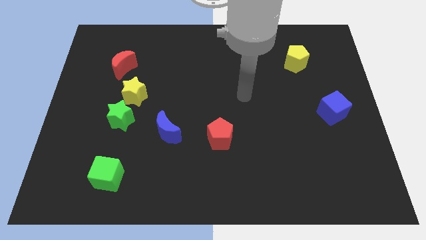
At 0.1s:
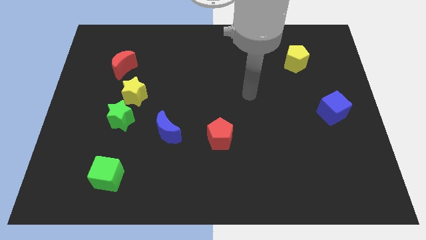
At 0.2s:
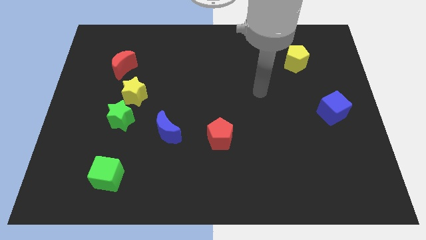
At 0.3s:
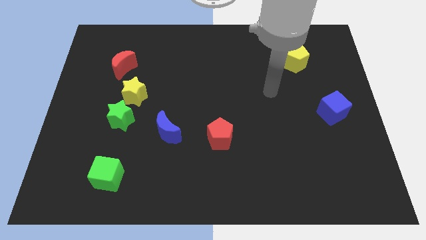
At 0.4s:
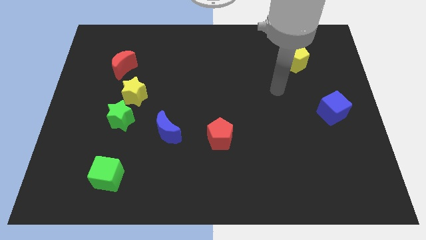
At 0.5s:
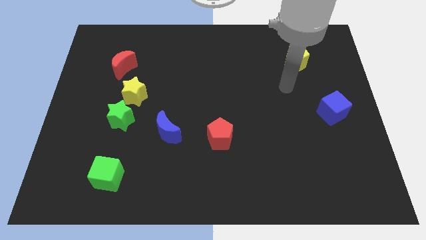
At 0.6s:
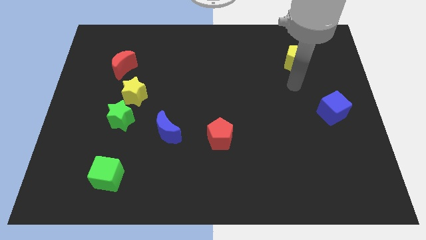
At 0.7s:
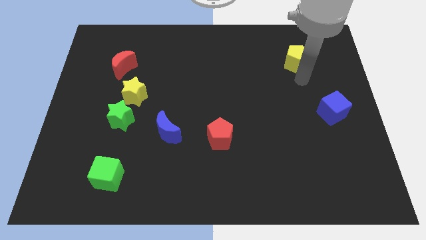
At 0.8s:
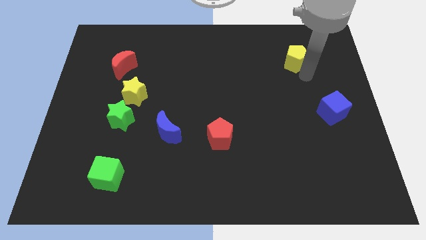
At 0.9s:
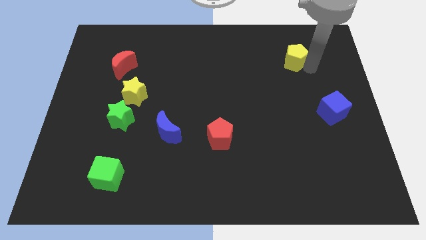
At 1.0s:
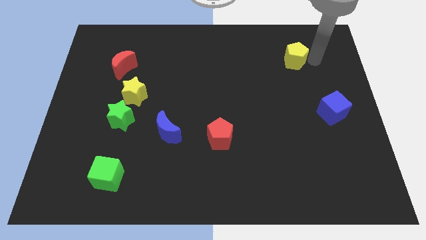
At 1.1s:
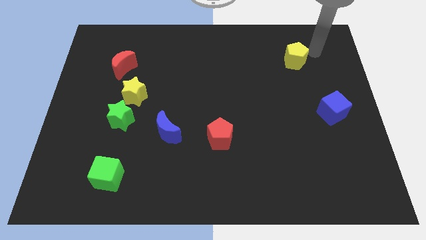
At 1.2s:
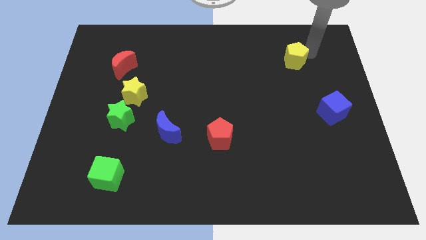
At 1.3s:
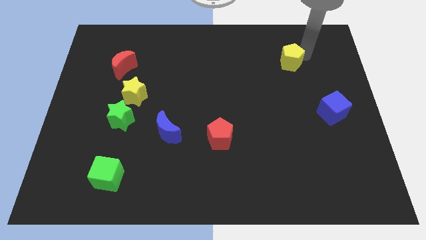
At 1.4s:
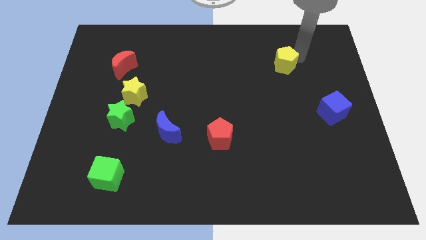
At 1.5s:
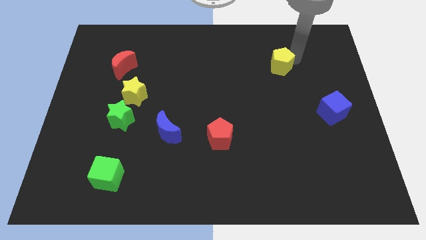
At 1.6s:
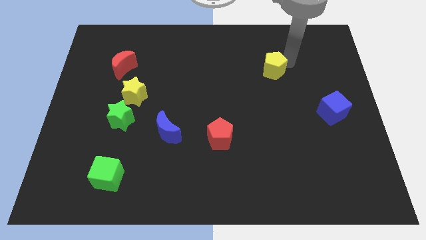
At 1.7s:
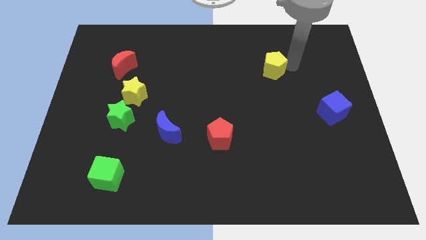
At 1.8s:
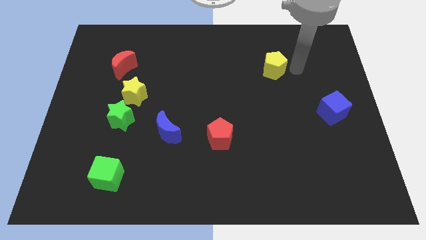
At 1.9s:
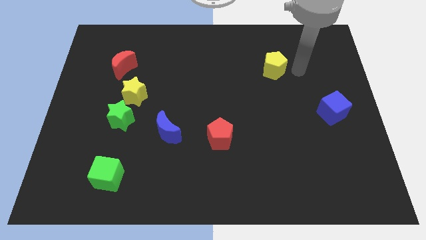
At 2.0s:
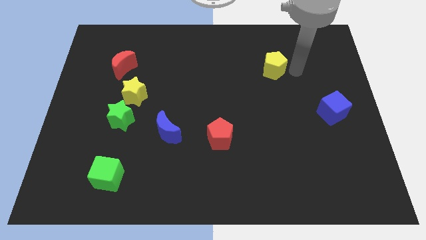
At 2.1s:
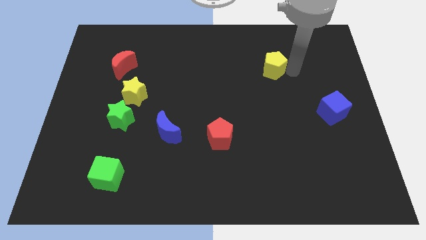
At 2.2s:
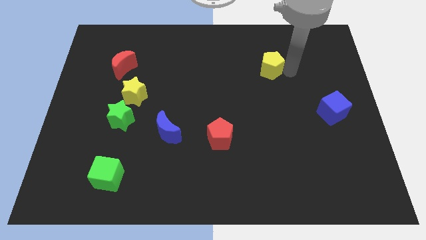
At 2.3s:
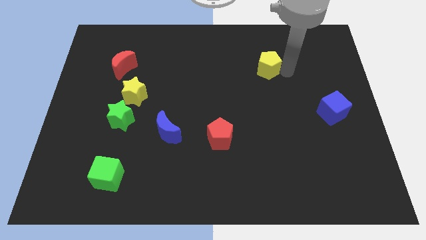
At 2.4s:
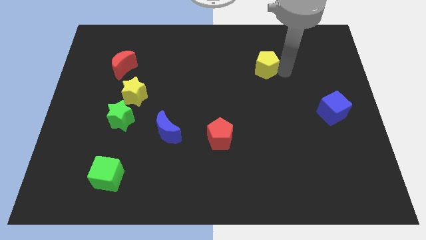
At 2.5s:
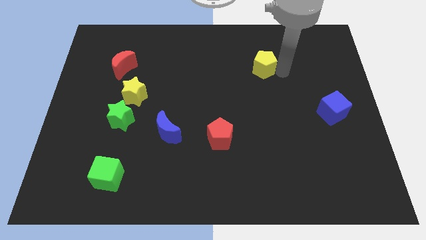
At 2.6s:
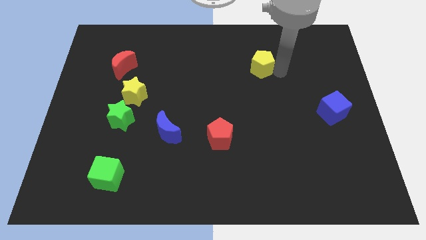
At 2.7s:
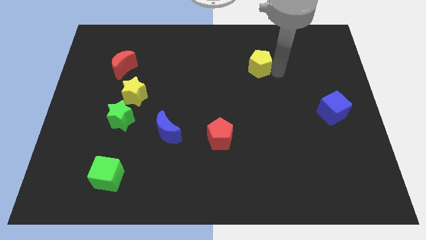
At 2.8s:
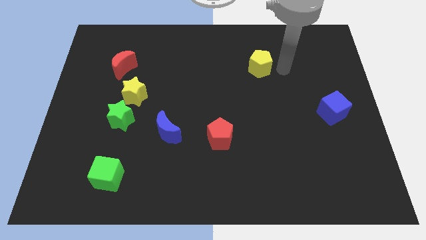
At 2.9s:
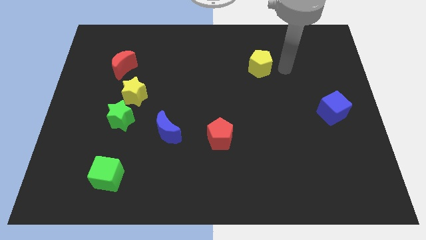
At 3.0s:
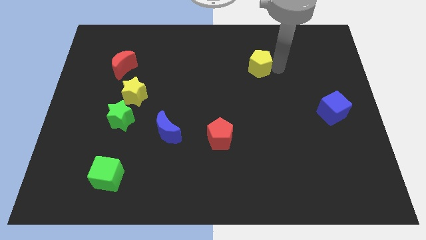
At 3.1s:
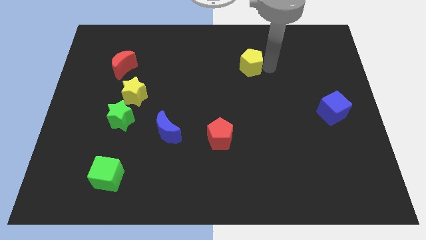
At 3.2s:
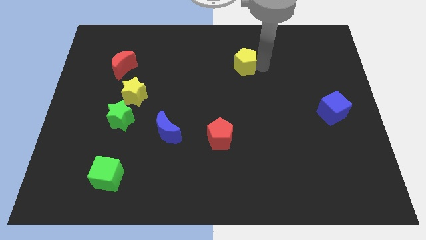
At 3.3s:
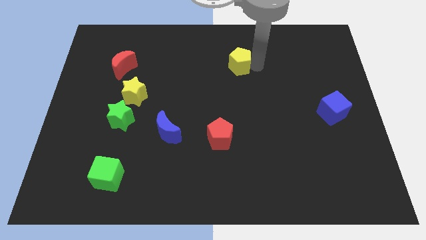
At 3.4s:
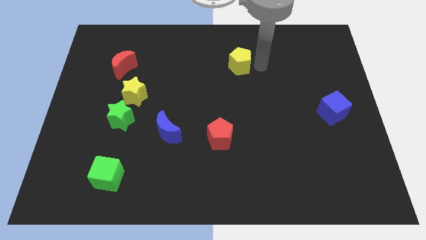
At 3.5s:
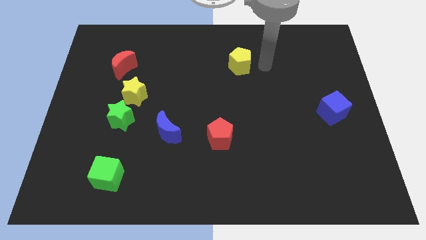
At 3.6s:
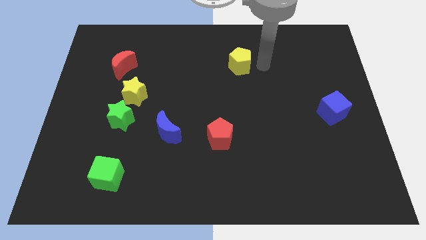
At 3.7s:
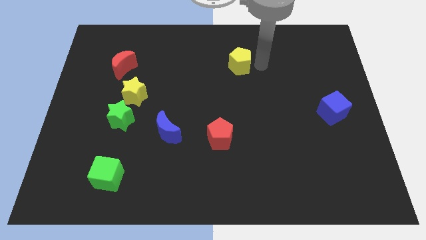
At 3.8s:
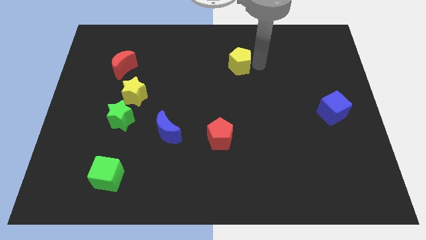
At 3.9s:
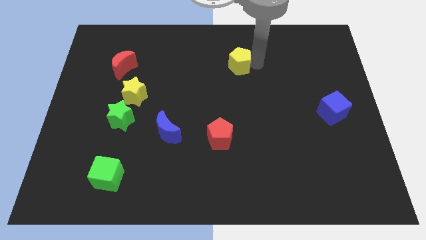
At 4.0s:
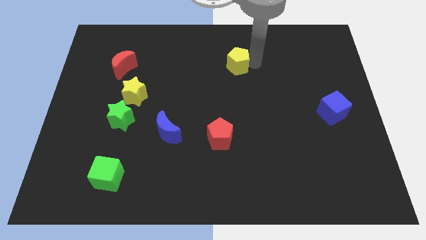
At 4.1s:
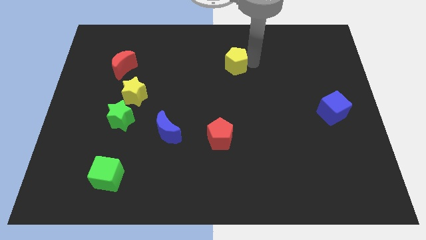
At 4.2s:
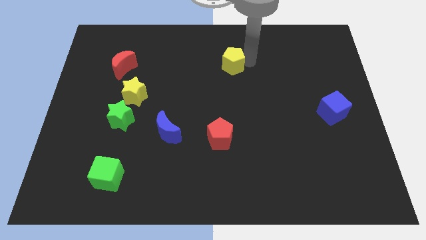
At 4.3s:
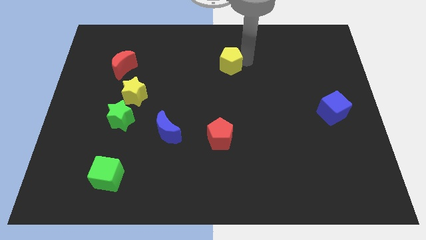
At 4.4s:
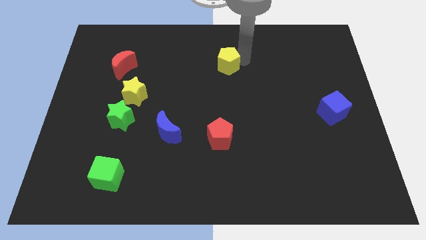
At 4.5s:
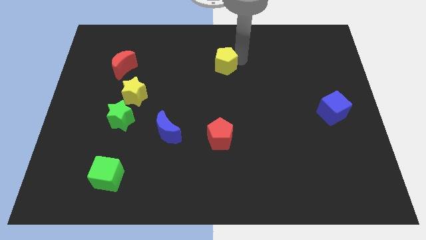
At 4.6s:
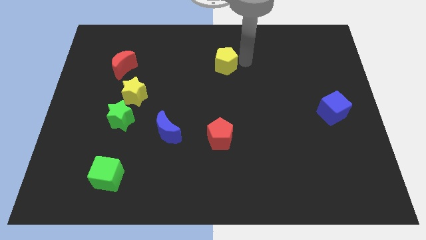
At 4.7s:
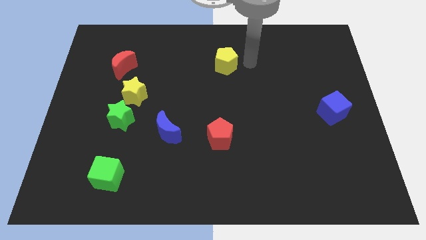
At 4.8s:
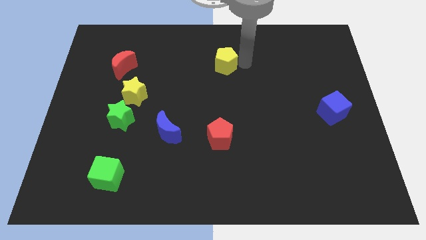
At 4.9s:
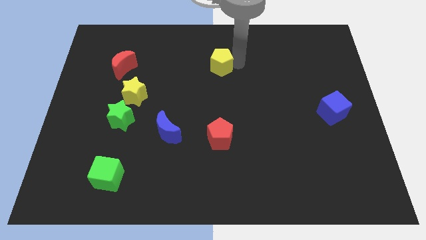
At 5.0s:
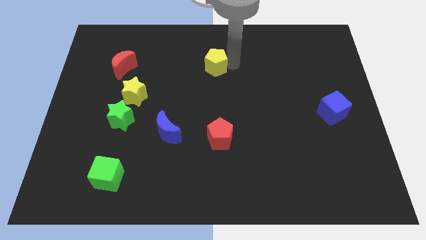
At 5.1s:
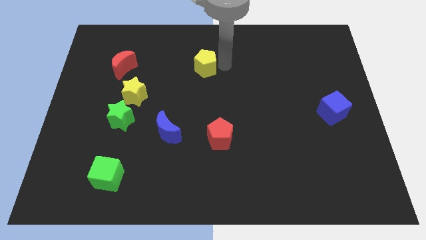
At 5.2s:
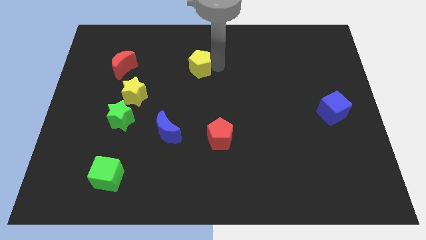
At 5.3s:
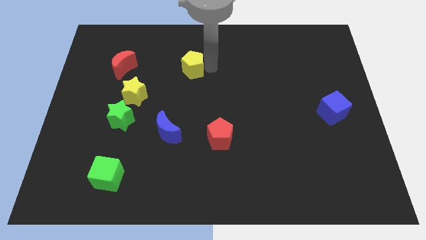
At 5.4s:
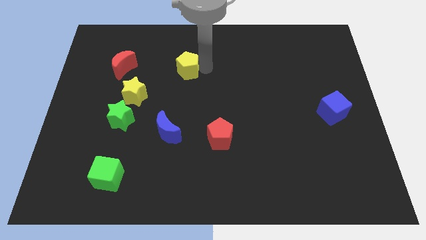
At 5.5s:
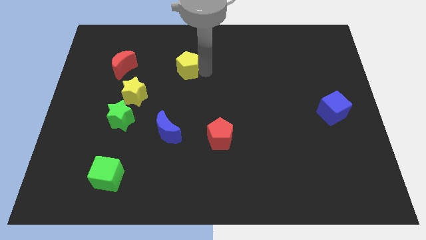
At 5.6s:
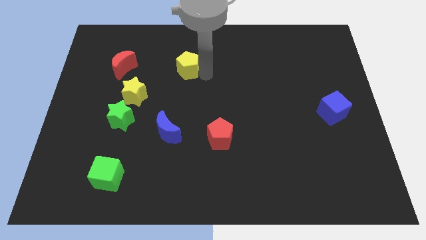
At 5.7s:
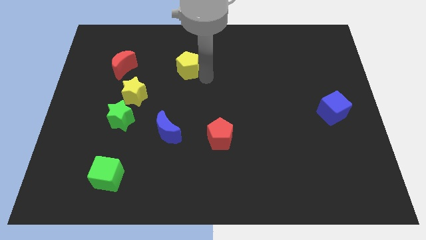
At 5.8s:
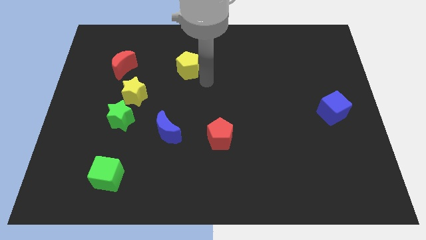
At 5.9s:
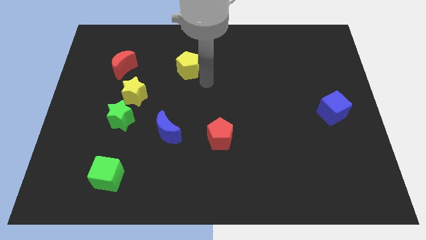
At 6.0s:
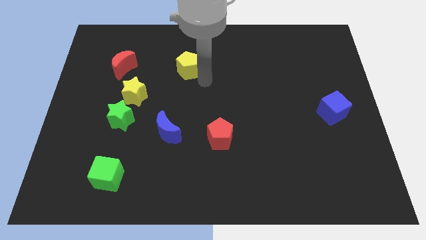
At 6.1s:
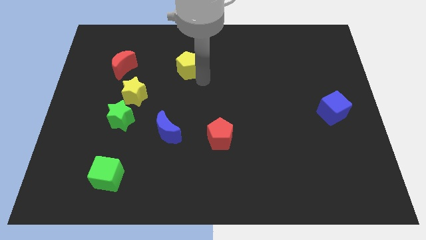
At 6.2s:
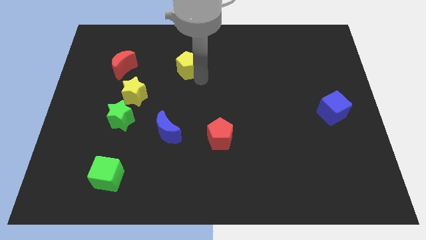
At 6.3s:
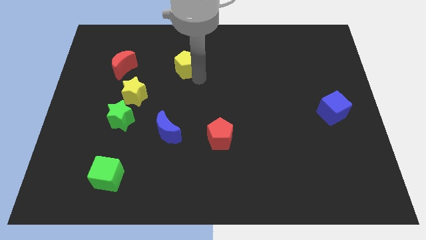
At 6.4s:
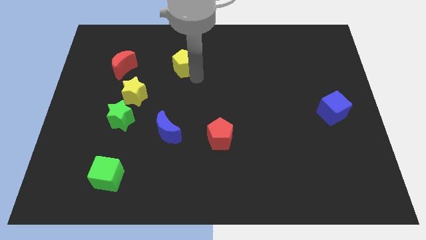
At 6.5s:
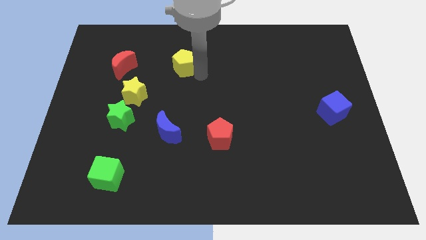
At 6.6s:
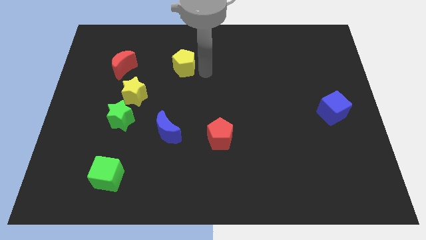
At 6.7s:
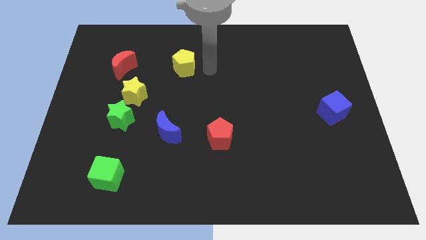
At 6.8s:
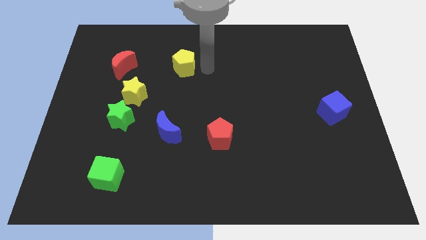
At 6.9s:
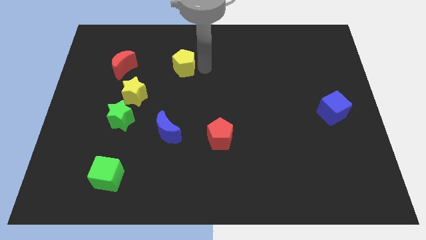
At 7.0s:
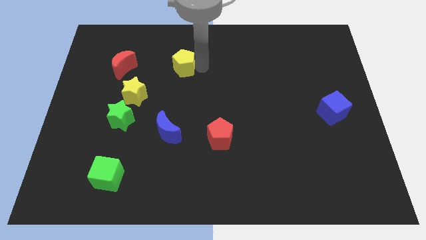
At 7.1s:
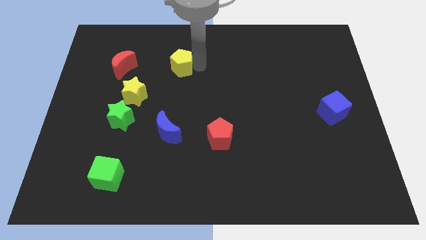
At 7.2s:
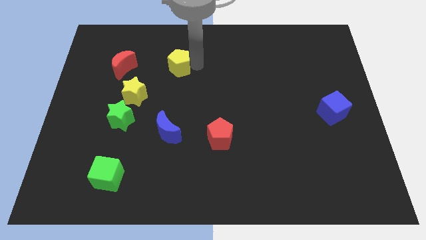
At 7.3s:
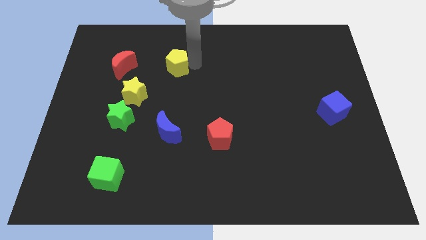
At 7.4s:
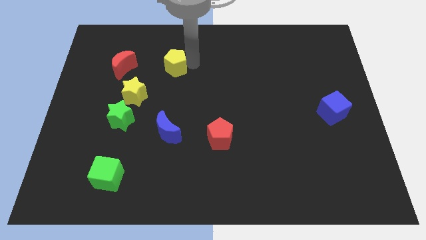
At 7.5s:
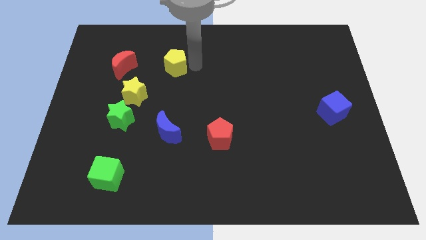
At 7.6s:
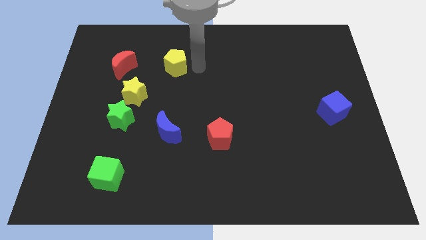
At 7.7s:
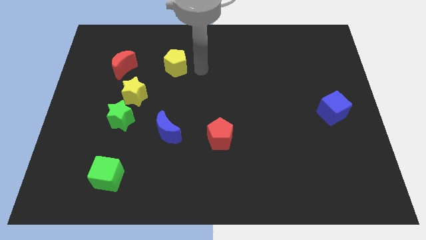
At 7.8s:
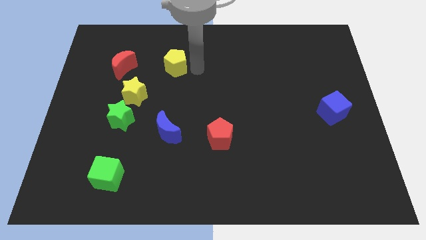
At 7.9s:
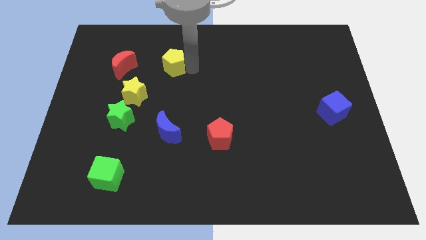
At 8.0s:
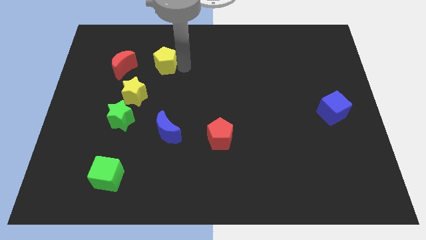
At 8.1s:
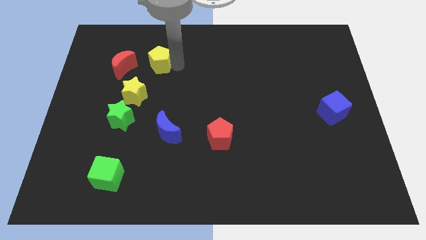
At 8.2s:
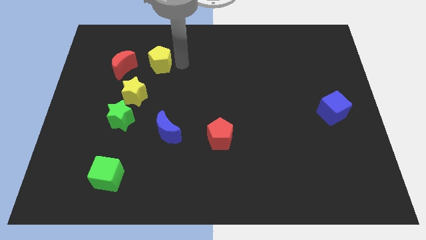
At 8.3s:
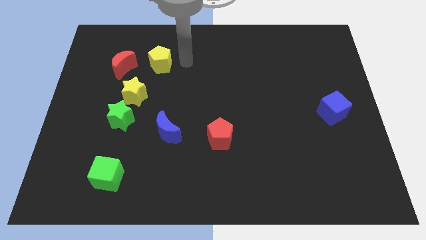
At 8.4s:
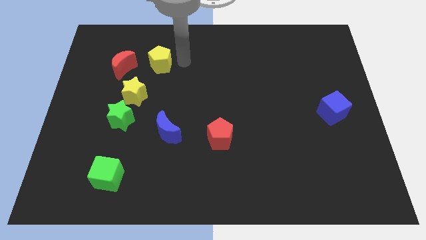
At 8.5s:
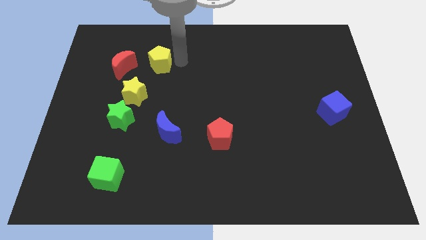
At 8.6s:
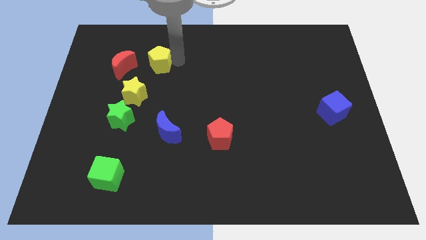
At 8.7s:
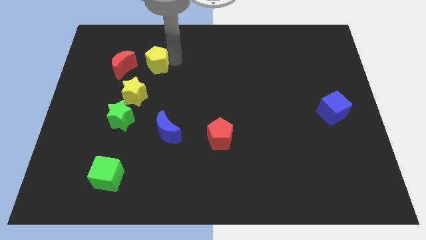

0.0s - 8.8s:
push the yellow pentagon to the top of the yellow star
